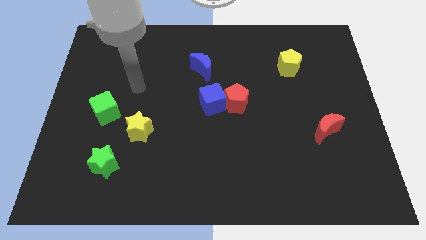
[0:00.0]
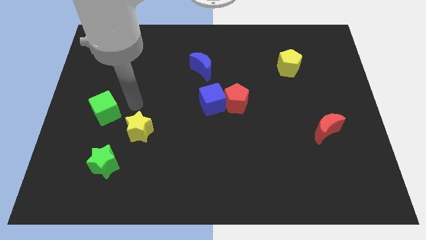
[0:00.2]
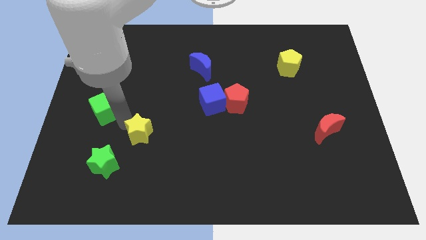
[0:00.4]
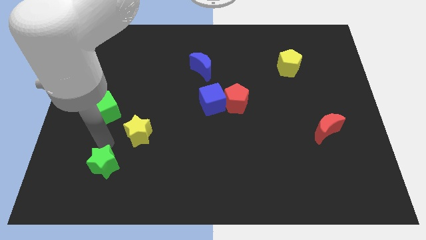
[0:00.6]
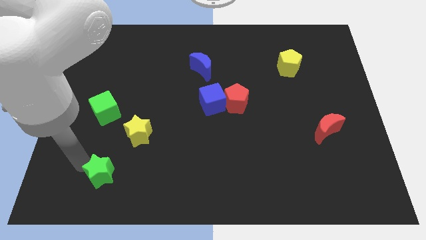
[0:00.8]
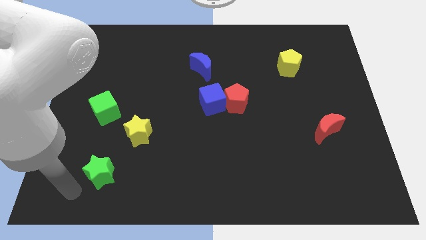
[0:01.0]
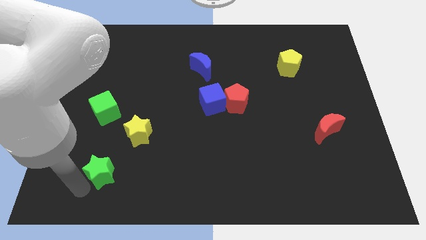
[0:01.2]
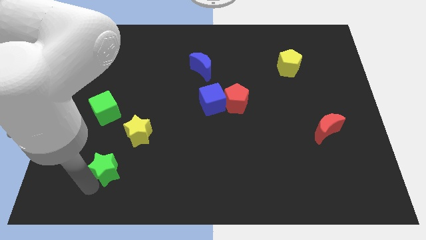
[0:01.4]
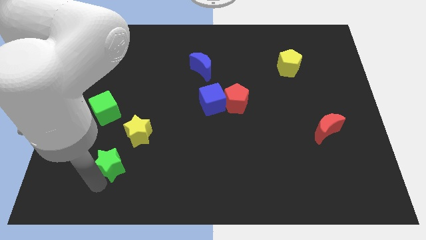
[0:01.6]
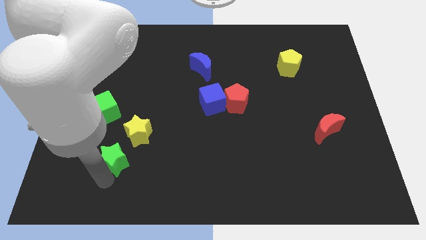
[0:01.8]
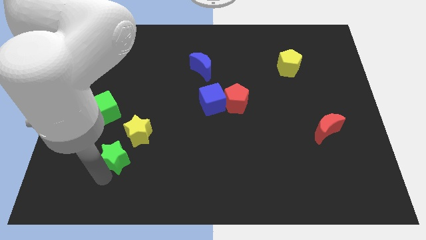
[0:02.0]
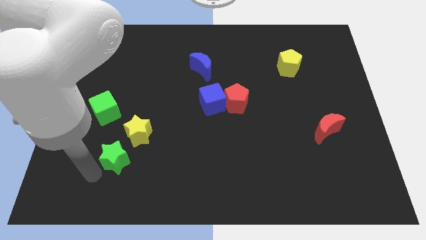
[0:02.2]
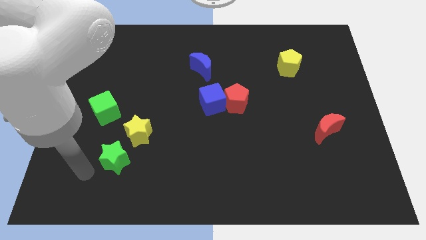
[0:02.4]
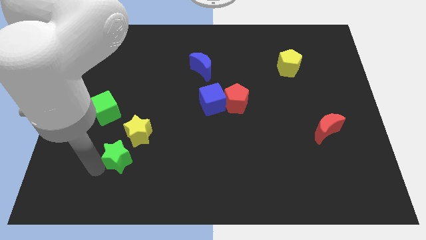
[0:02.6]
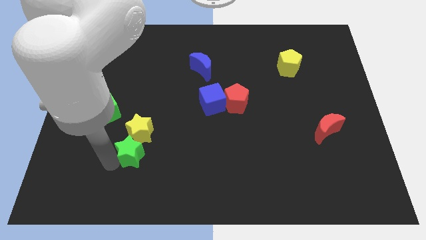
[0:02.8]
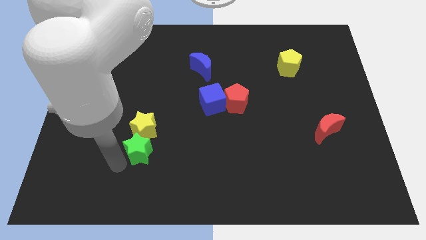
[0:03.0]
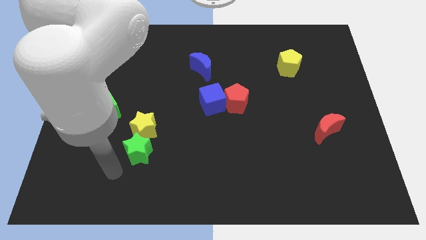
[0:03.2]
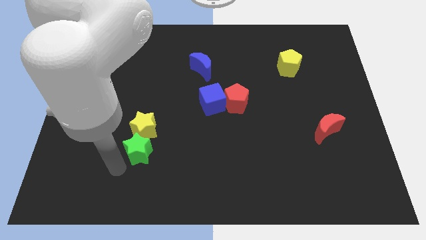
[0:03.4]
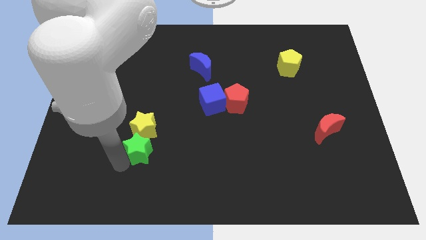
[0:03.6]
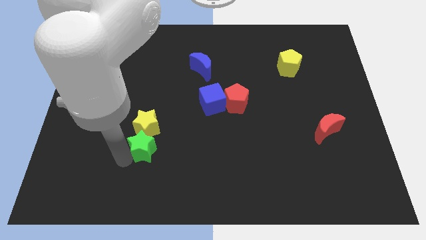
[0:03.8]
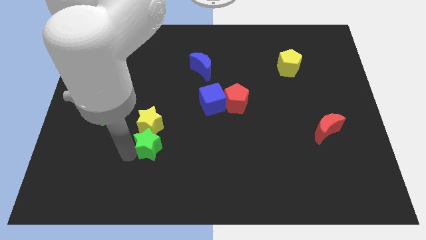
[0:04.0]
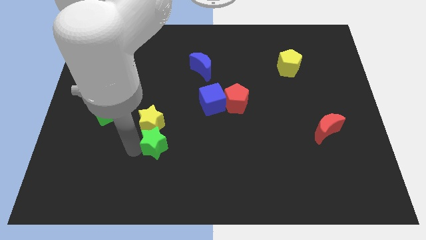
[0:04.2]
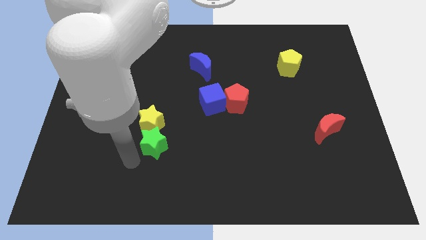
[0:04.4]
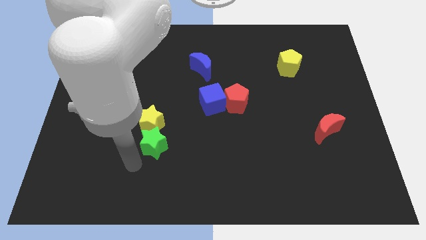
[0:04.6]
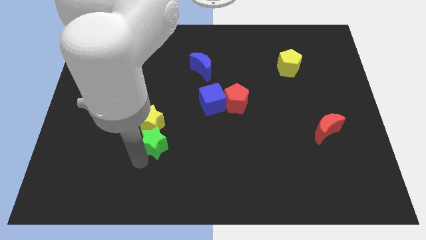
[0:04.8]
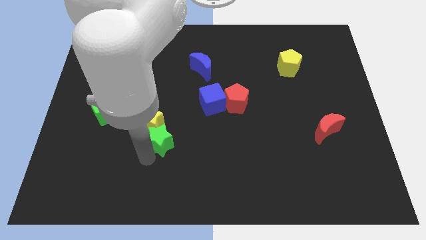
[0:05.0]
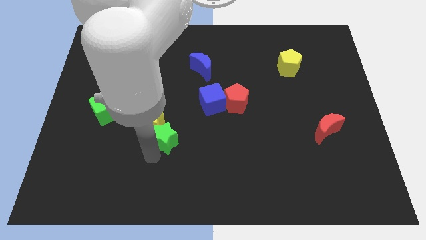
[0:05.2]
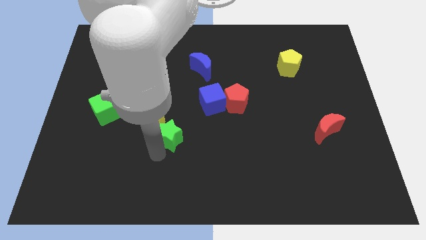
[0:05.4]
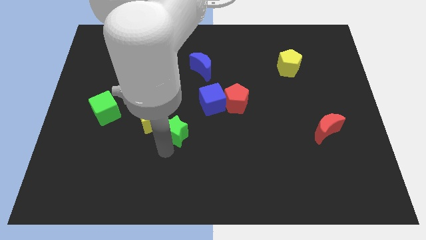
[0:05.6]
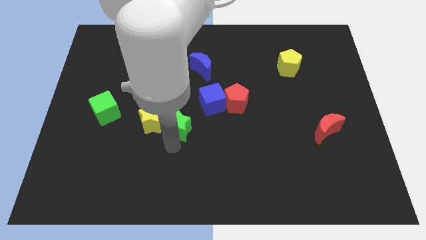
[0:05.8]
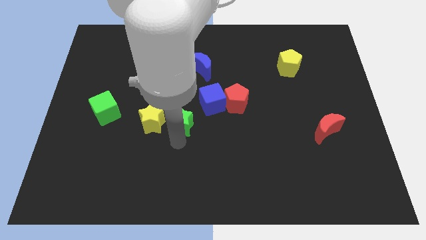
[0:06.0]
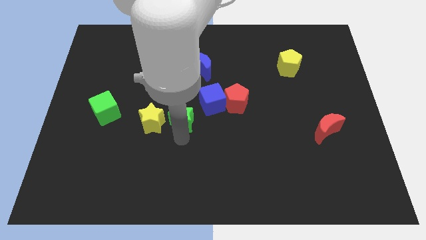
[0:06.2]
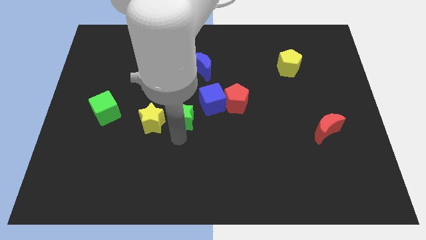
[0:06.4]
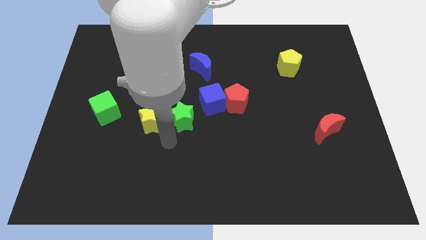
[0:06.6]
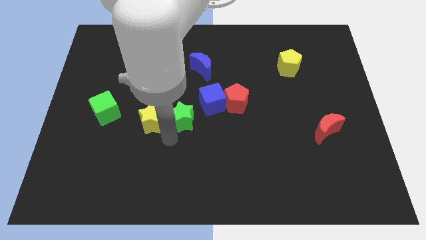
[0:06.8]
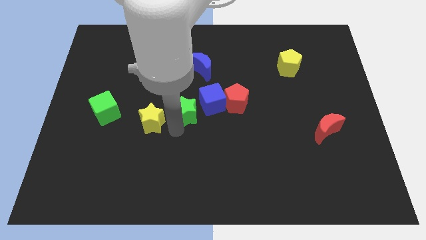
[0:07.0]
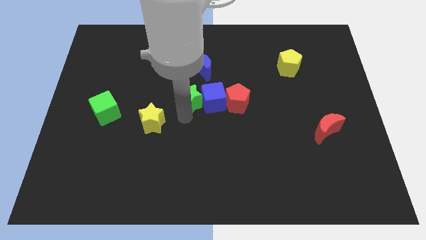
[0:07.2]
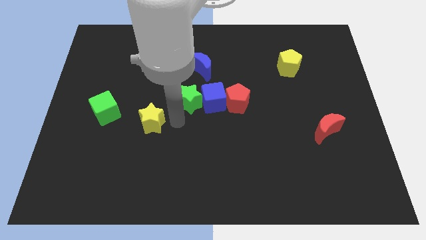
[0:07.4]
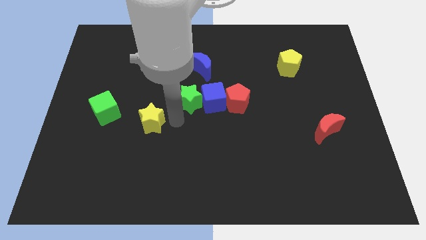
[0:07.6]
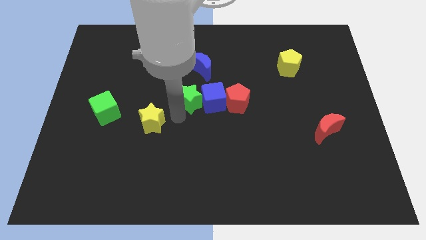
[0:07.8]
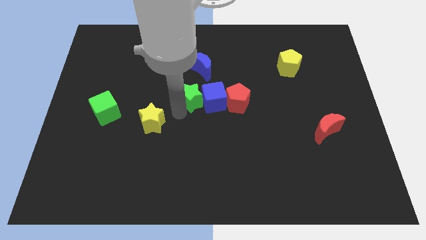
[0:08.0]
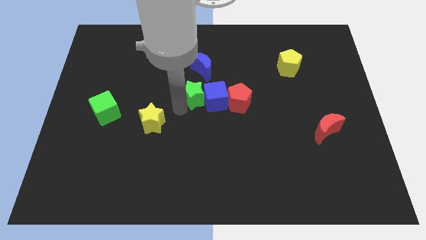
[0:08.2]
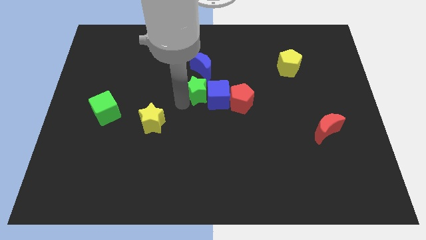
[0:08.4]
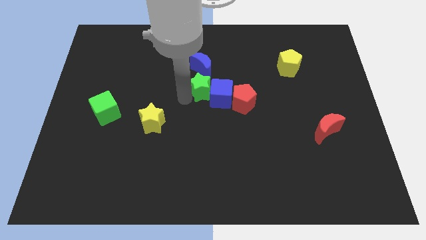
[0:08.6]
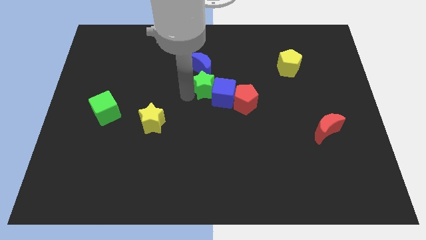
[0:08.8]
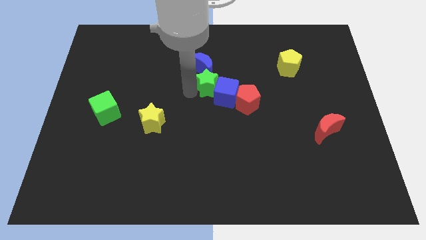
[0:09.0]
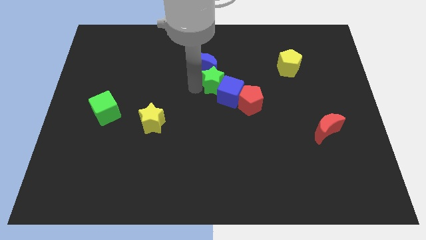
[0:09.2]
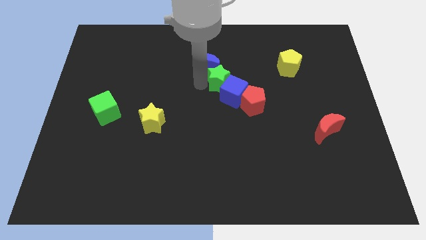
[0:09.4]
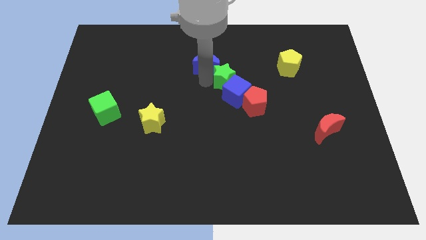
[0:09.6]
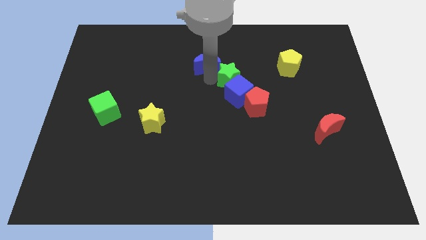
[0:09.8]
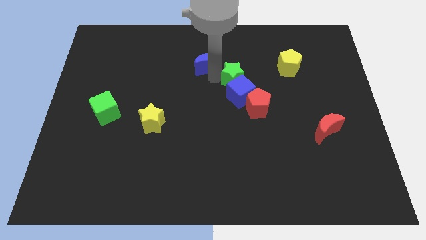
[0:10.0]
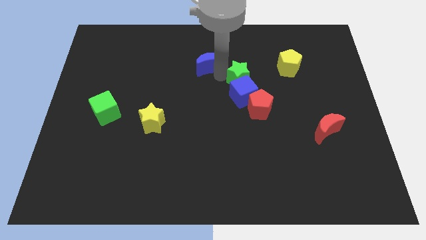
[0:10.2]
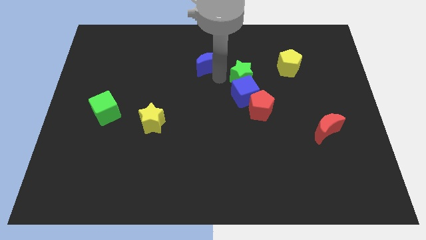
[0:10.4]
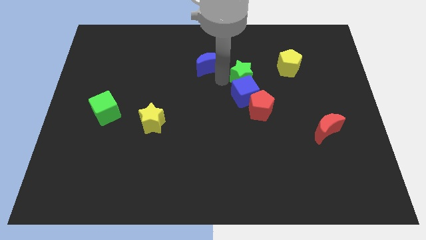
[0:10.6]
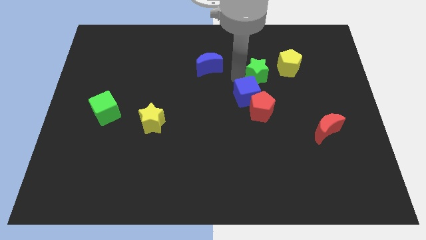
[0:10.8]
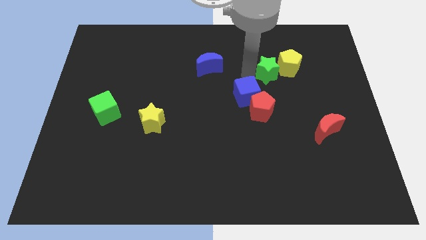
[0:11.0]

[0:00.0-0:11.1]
move the green star to the yellow pentagon

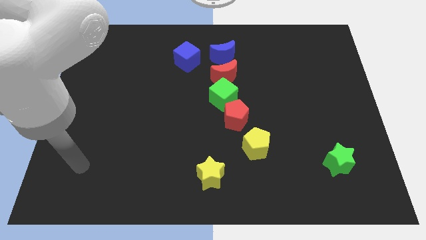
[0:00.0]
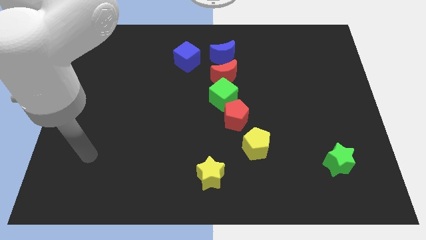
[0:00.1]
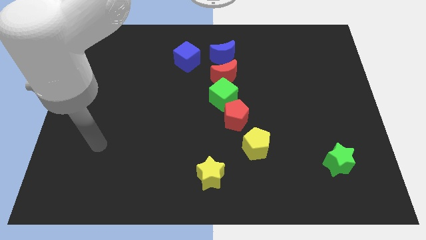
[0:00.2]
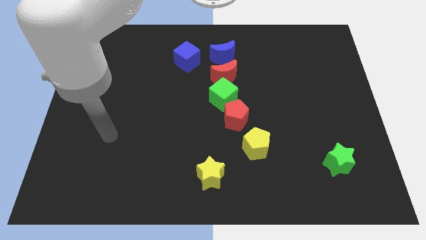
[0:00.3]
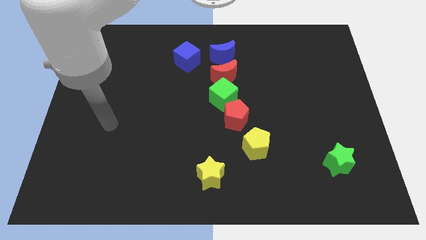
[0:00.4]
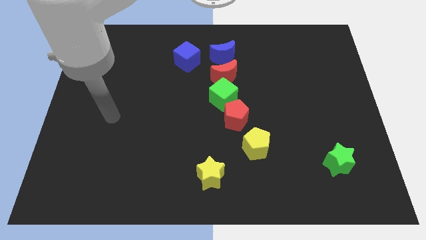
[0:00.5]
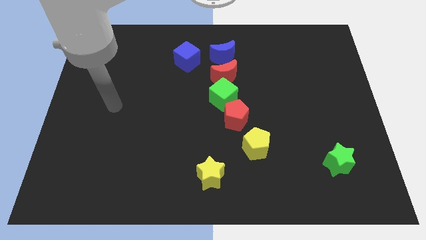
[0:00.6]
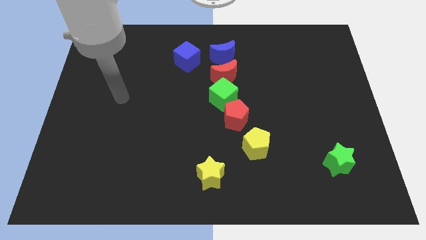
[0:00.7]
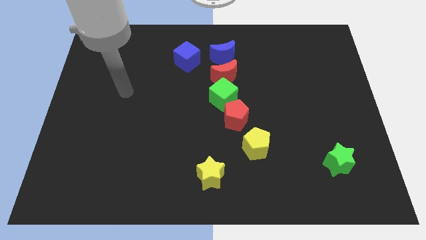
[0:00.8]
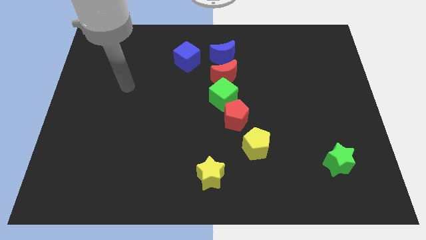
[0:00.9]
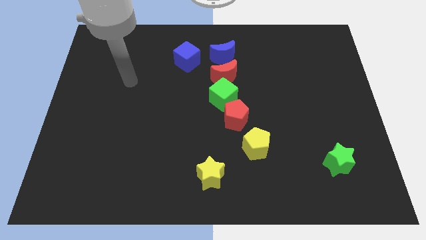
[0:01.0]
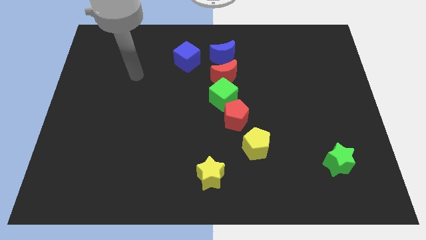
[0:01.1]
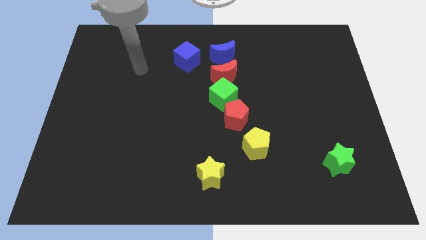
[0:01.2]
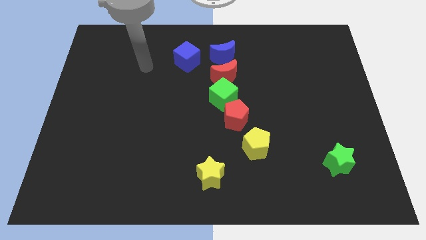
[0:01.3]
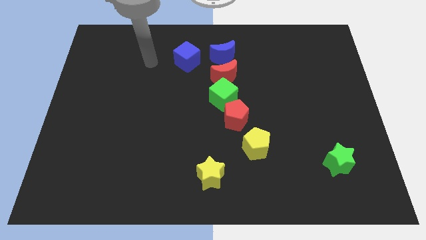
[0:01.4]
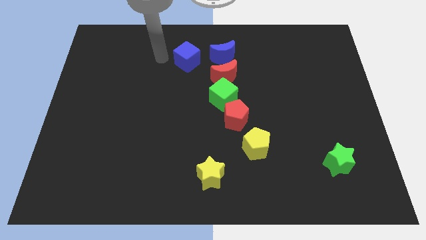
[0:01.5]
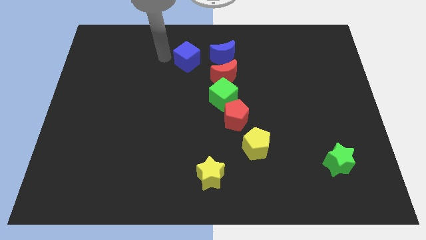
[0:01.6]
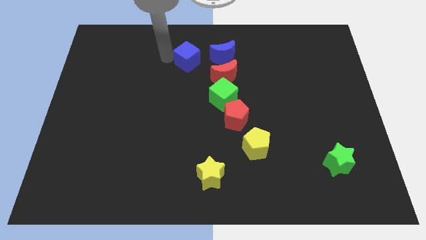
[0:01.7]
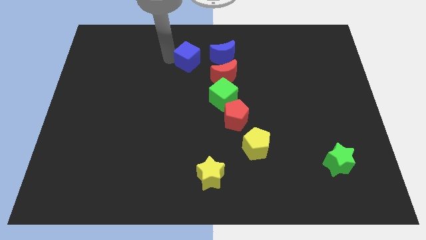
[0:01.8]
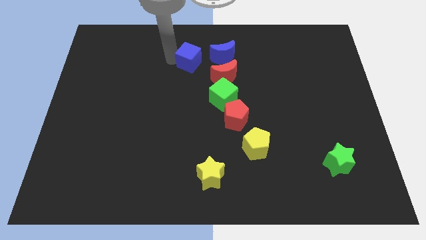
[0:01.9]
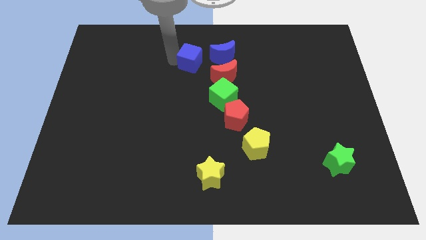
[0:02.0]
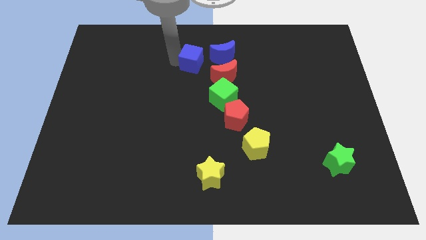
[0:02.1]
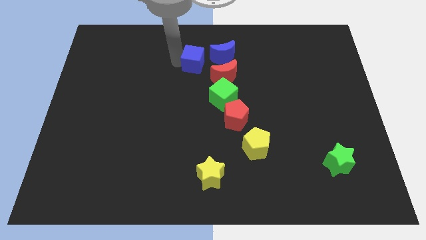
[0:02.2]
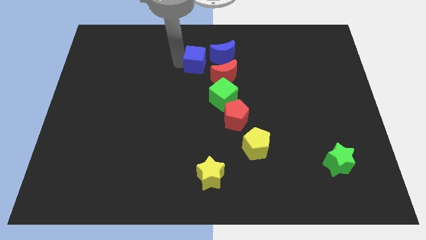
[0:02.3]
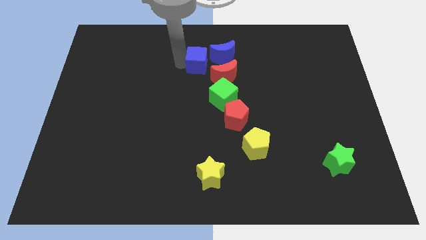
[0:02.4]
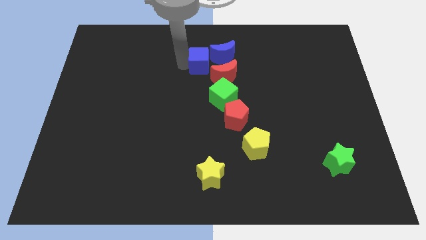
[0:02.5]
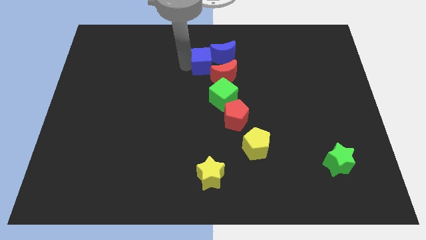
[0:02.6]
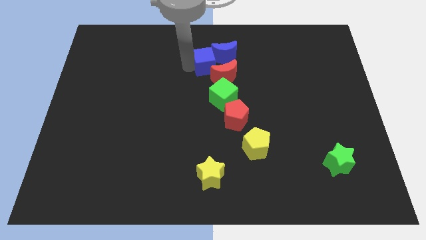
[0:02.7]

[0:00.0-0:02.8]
move the blue cube towards the blue moon
